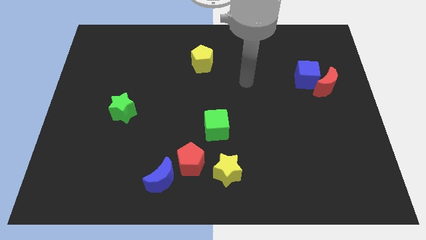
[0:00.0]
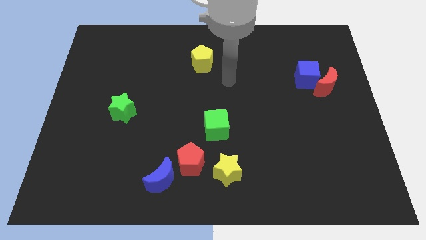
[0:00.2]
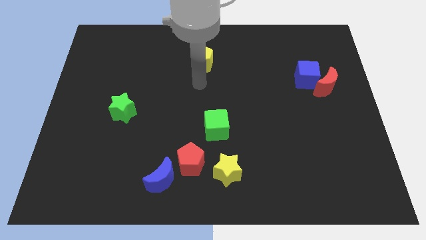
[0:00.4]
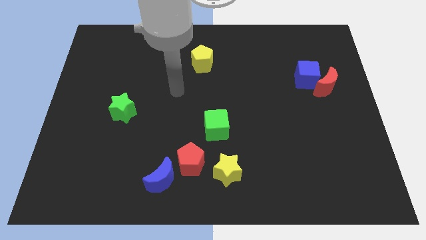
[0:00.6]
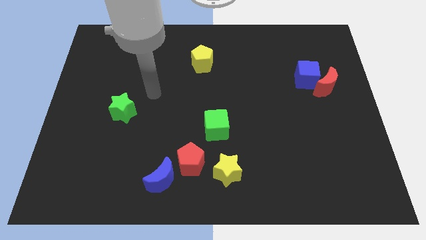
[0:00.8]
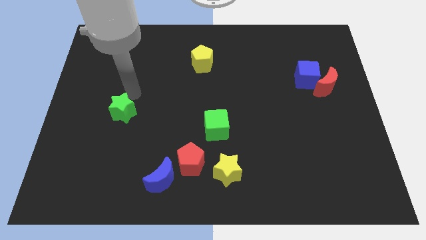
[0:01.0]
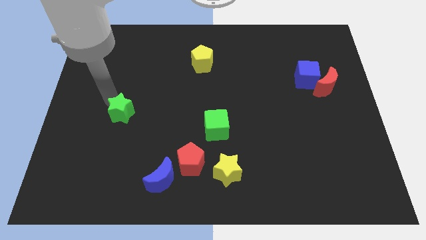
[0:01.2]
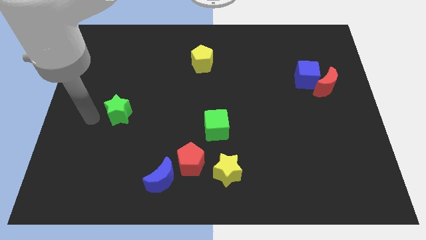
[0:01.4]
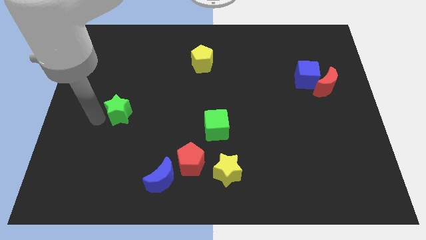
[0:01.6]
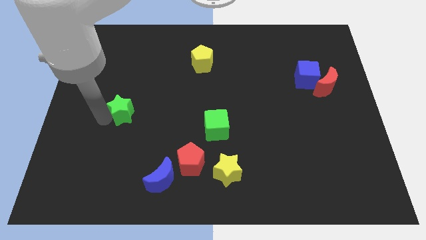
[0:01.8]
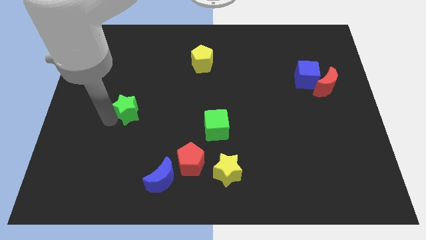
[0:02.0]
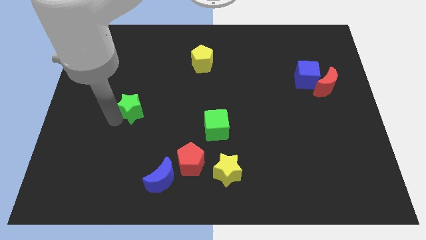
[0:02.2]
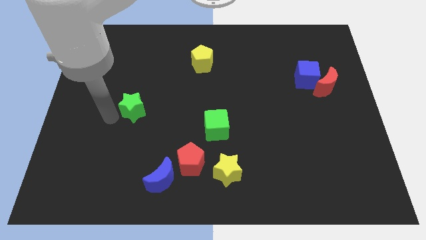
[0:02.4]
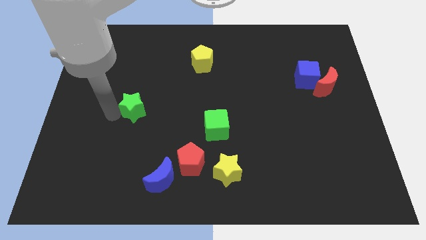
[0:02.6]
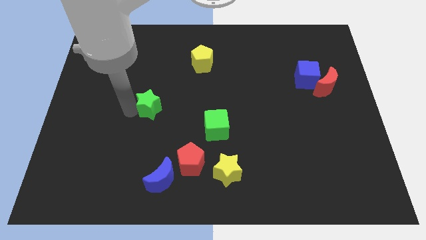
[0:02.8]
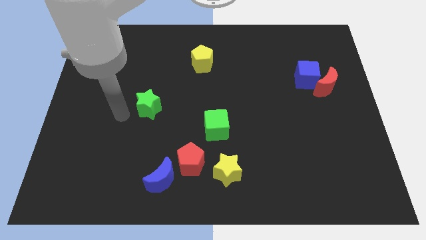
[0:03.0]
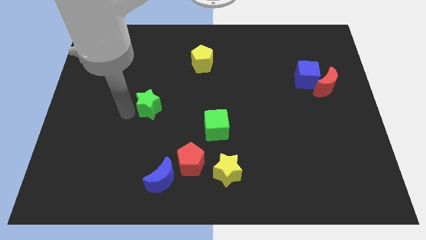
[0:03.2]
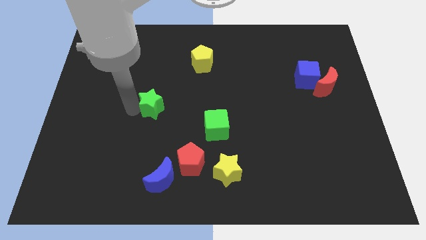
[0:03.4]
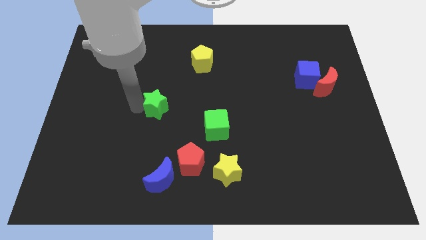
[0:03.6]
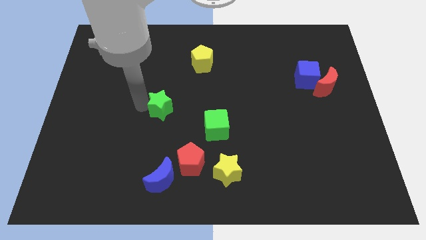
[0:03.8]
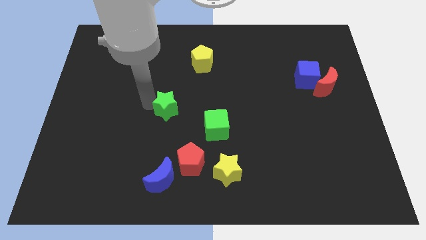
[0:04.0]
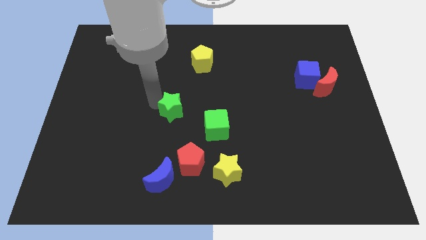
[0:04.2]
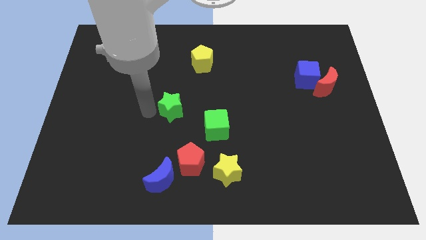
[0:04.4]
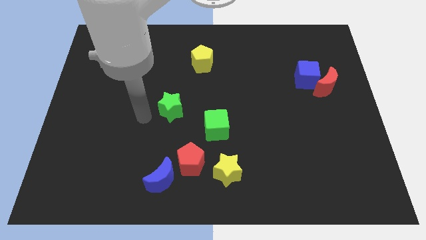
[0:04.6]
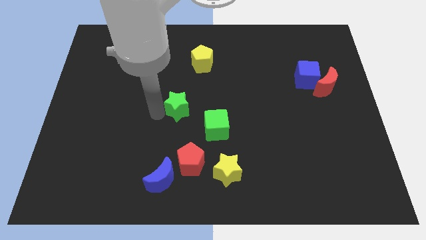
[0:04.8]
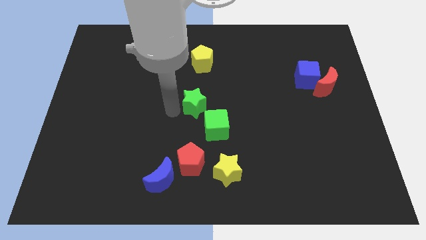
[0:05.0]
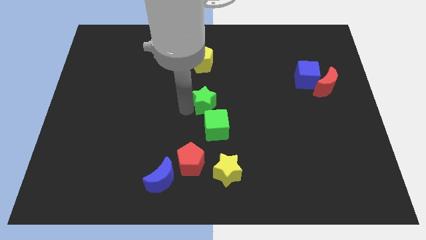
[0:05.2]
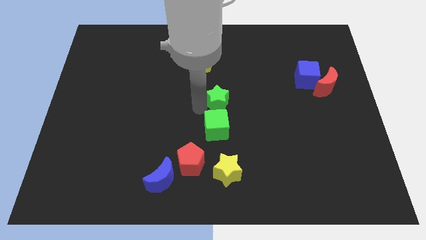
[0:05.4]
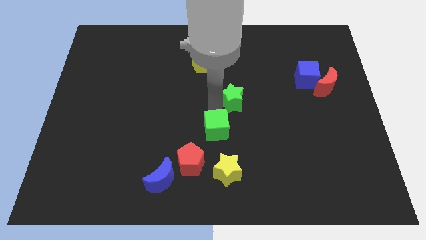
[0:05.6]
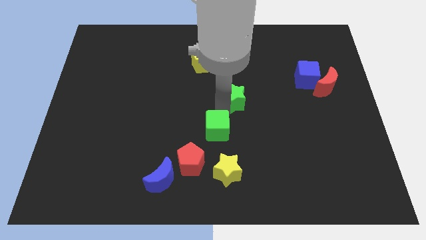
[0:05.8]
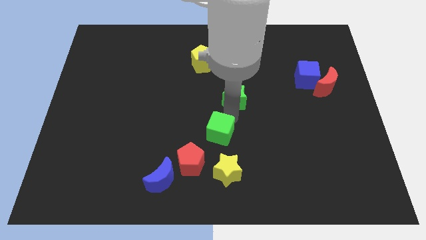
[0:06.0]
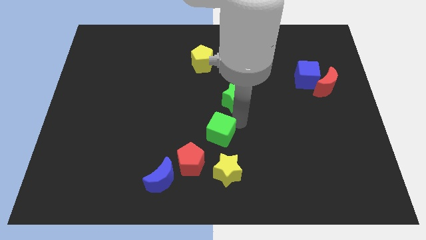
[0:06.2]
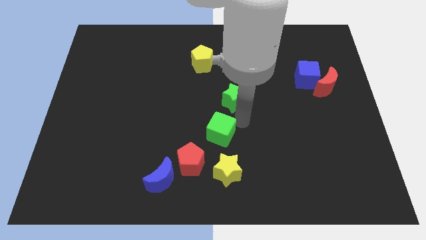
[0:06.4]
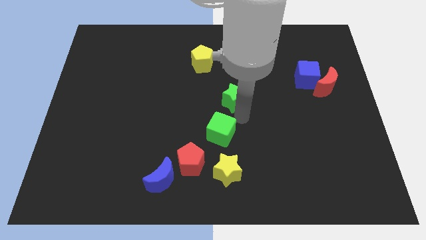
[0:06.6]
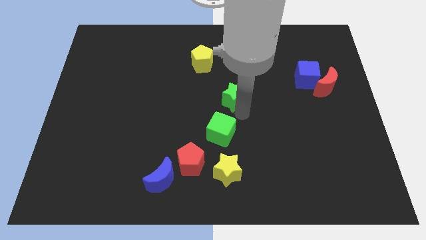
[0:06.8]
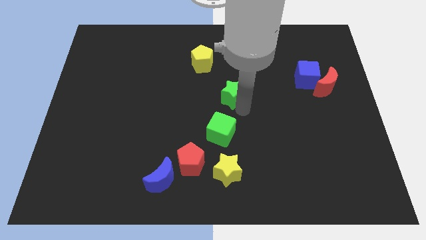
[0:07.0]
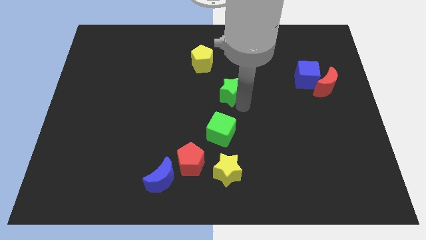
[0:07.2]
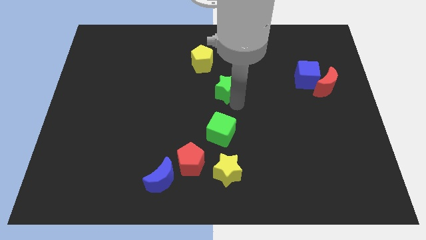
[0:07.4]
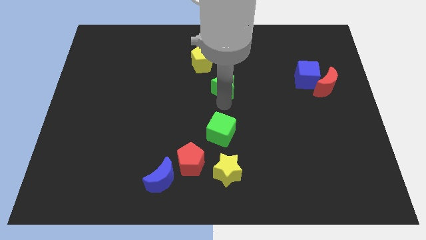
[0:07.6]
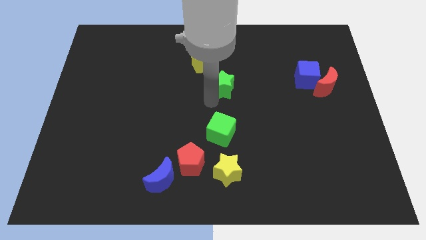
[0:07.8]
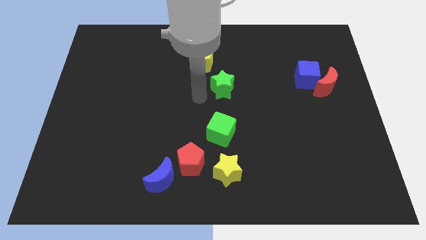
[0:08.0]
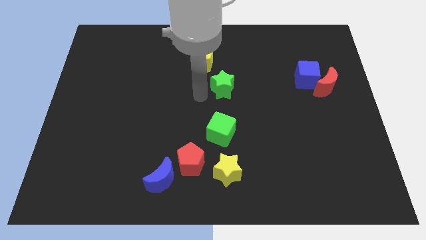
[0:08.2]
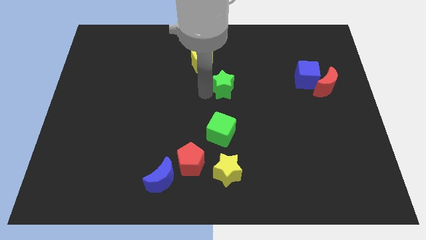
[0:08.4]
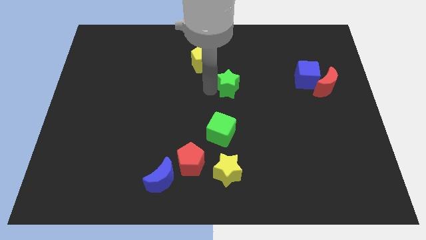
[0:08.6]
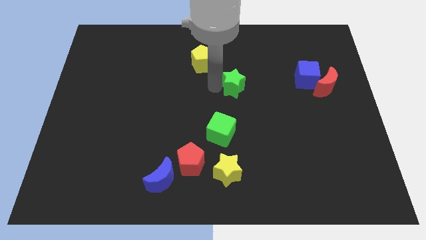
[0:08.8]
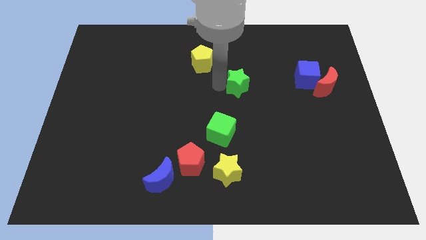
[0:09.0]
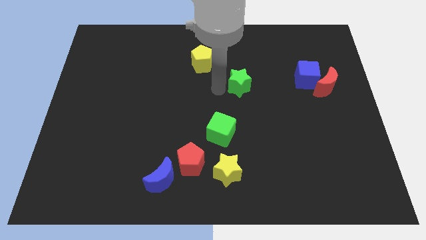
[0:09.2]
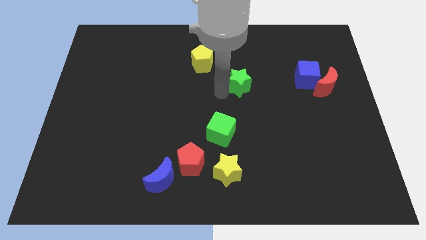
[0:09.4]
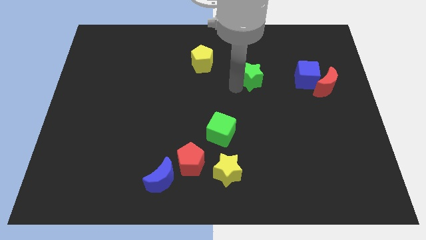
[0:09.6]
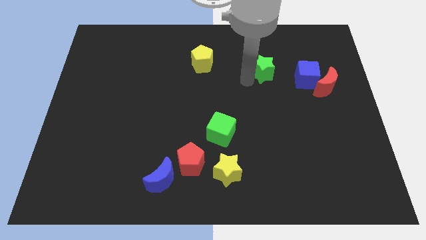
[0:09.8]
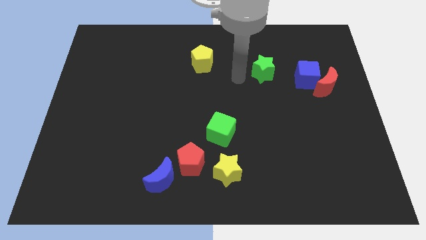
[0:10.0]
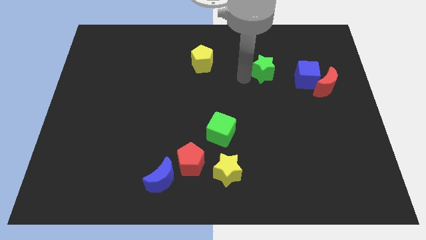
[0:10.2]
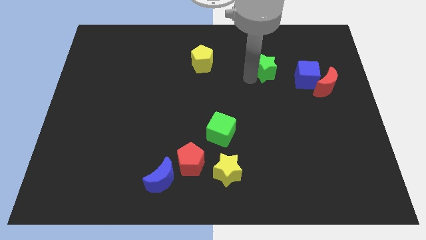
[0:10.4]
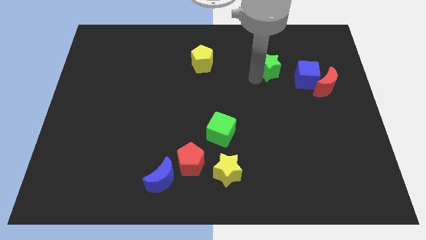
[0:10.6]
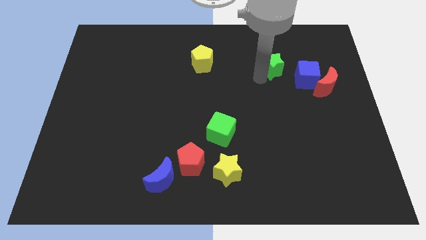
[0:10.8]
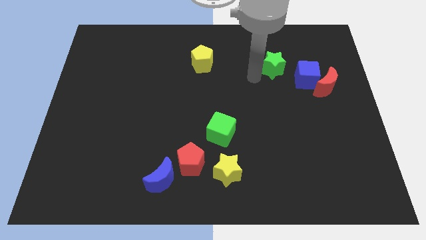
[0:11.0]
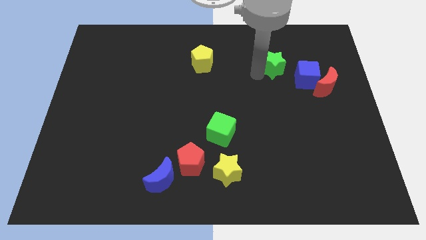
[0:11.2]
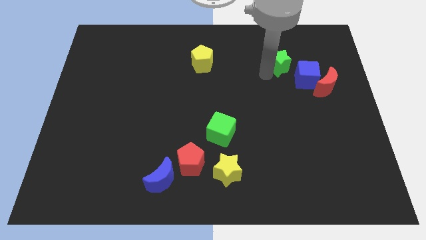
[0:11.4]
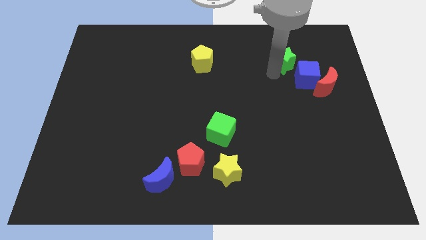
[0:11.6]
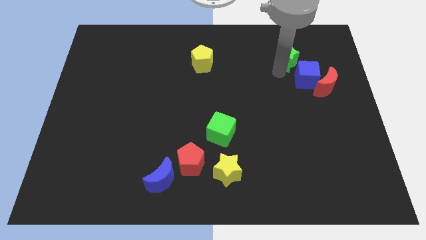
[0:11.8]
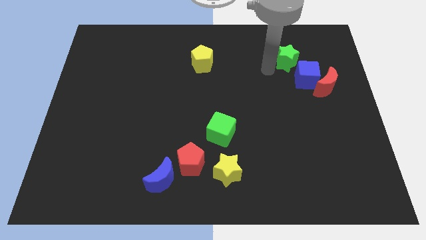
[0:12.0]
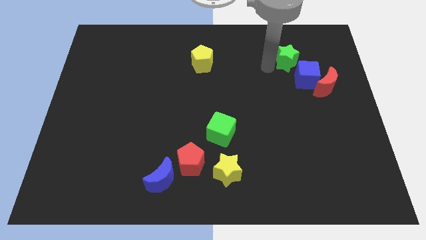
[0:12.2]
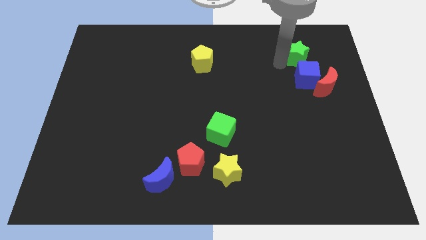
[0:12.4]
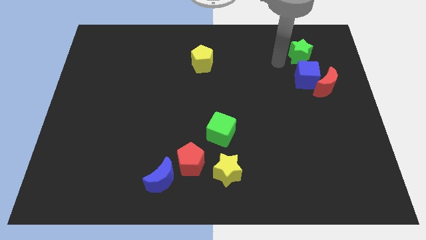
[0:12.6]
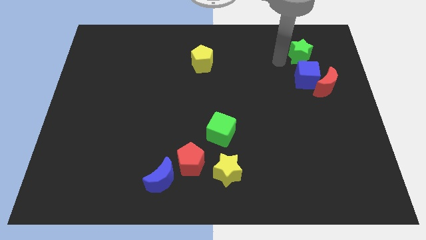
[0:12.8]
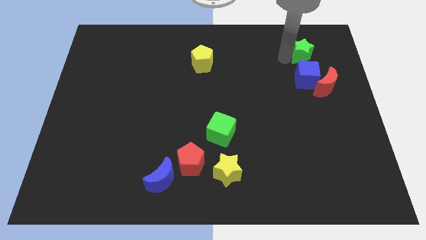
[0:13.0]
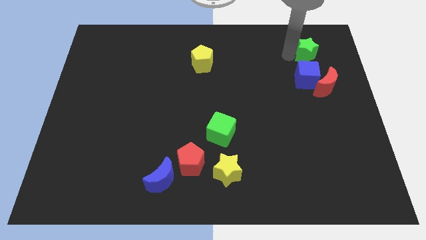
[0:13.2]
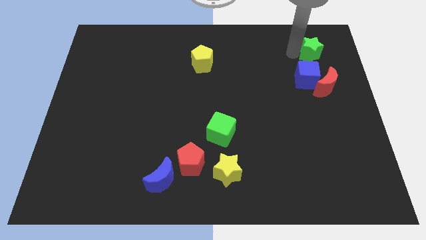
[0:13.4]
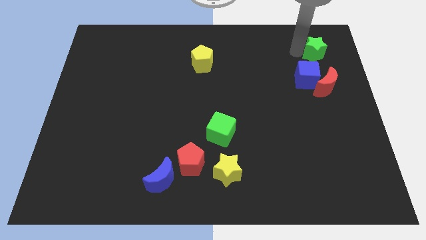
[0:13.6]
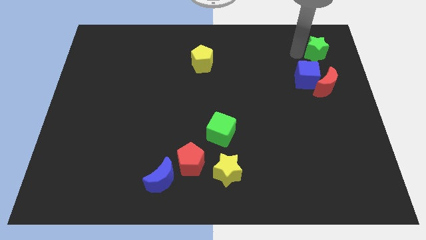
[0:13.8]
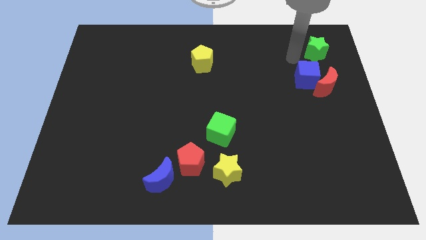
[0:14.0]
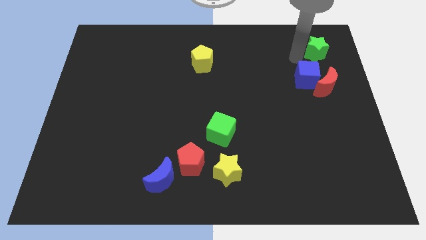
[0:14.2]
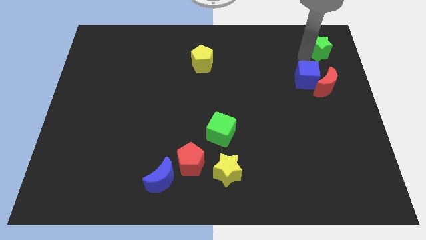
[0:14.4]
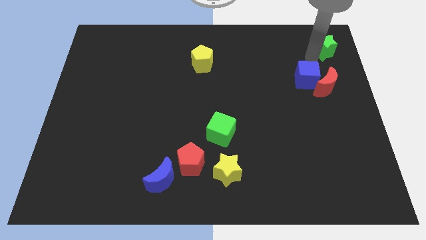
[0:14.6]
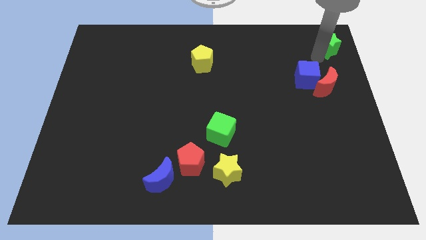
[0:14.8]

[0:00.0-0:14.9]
slide the green star to the top right of the board
